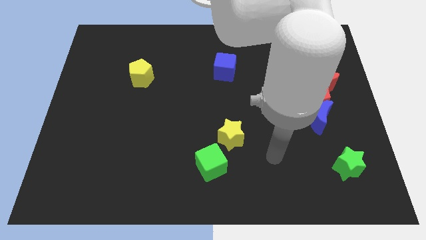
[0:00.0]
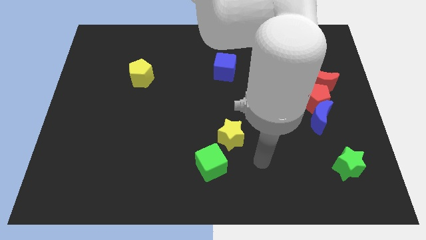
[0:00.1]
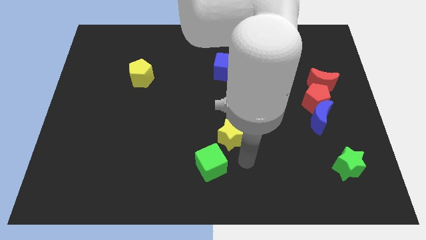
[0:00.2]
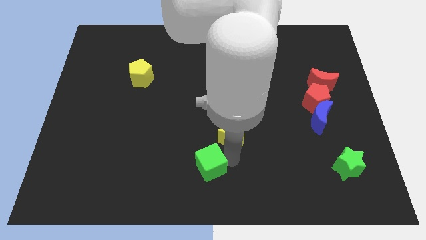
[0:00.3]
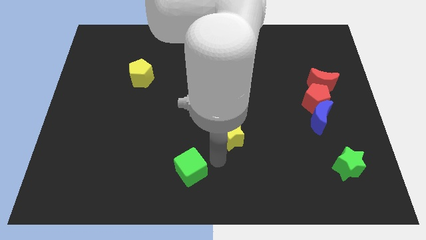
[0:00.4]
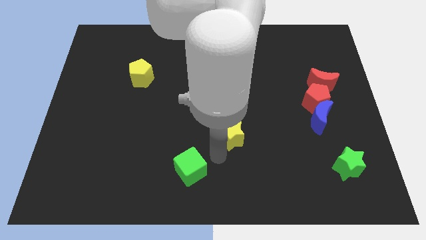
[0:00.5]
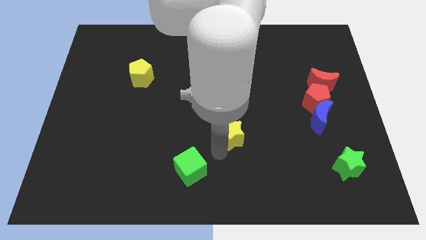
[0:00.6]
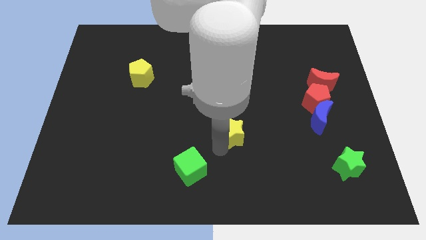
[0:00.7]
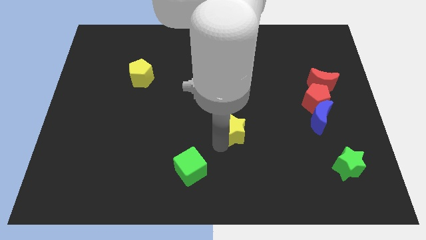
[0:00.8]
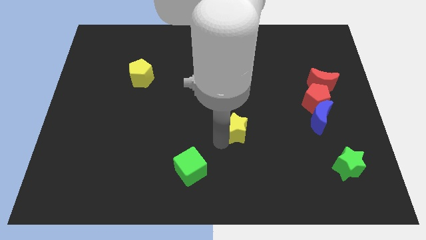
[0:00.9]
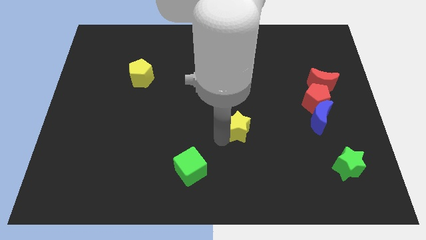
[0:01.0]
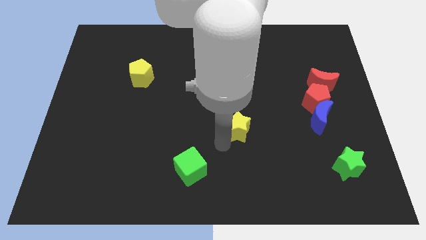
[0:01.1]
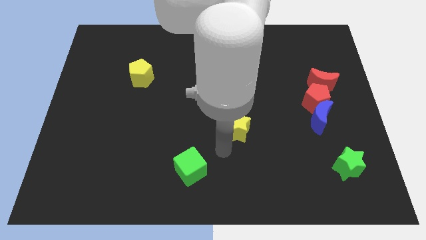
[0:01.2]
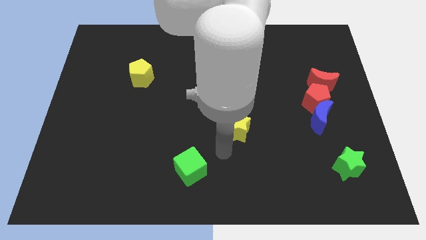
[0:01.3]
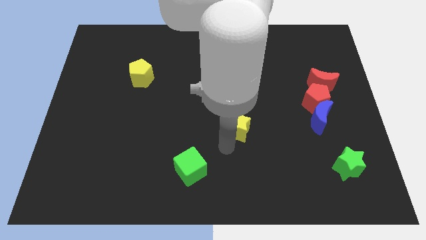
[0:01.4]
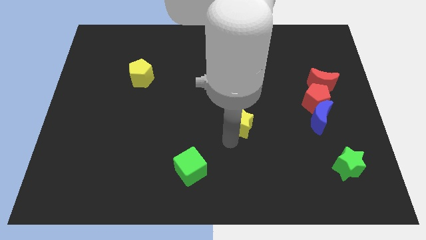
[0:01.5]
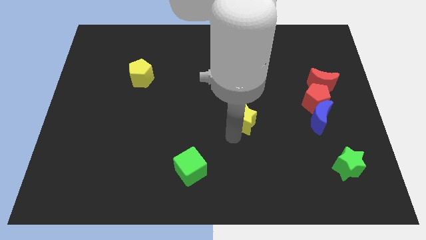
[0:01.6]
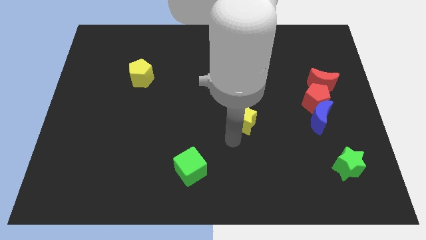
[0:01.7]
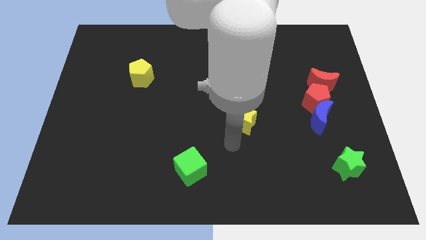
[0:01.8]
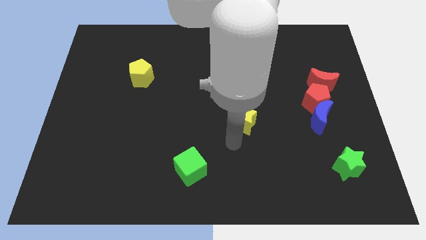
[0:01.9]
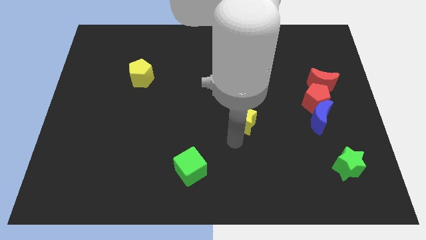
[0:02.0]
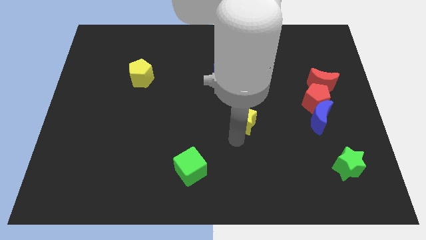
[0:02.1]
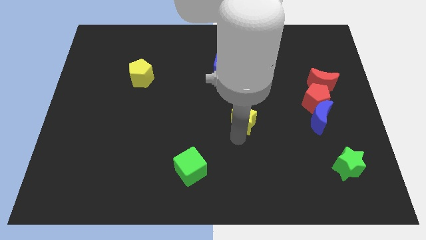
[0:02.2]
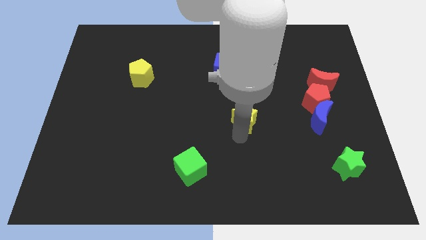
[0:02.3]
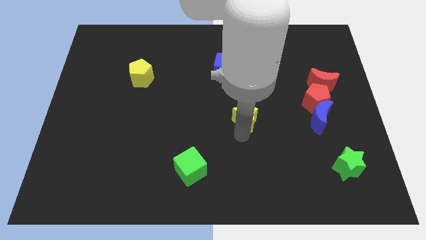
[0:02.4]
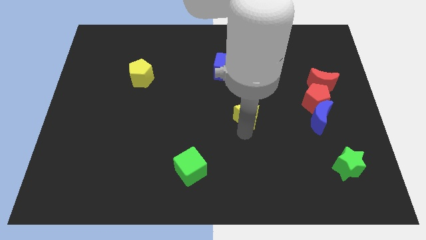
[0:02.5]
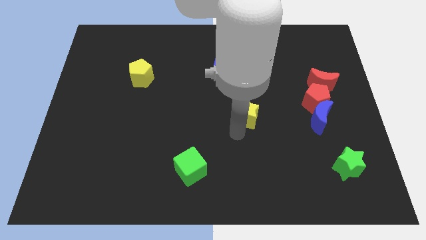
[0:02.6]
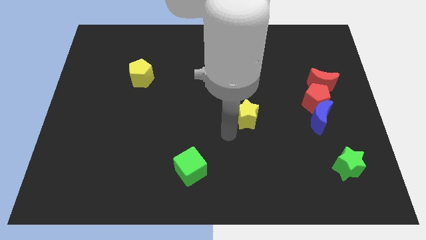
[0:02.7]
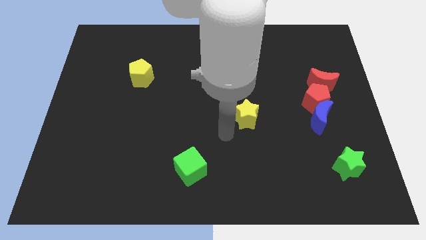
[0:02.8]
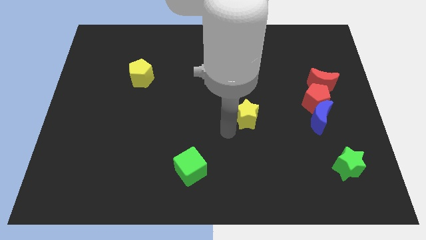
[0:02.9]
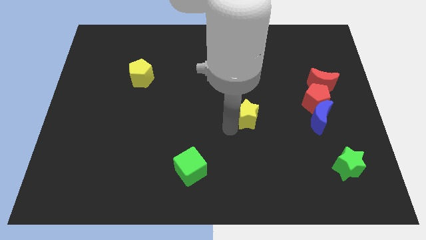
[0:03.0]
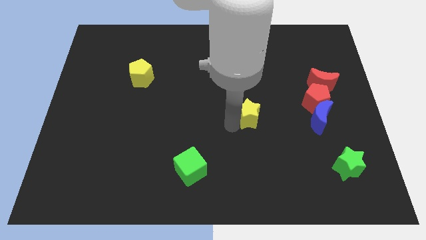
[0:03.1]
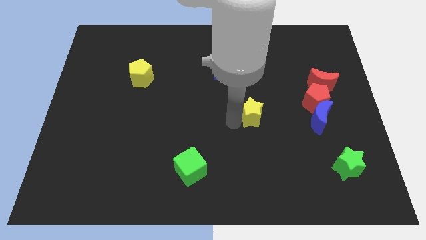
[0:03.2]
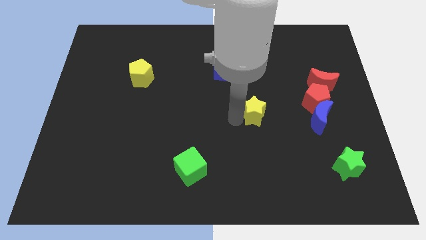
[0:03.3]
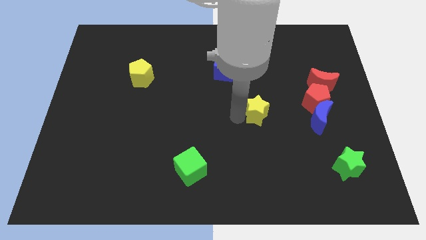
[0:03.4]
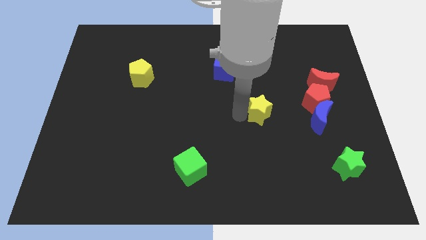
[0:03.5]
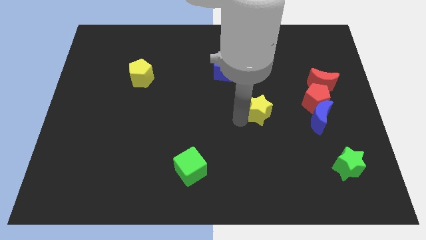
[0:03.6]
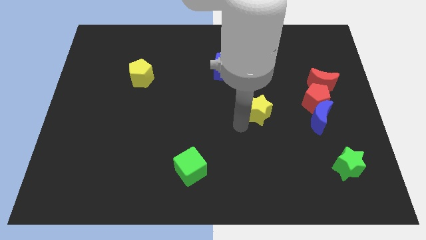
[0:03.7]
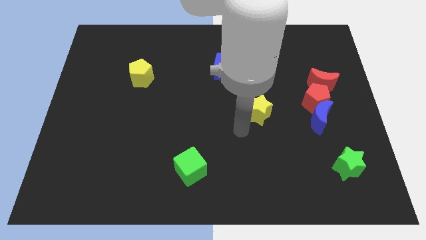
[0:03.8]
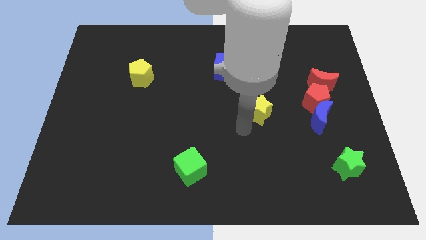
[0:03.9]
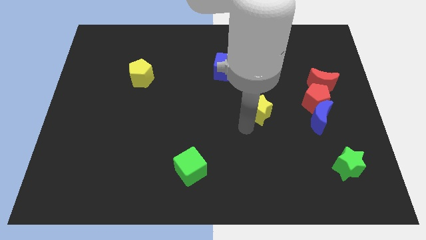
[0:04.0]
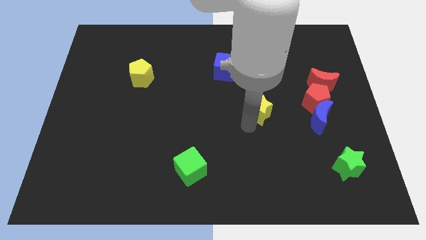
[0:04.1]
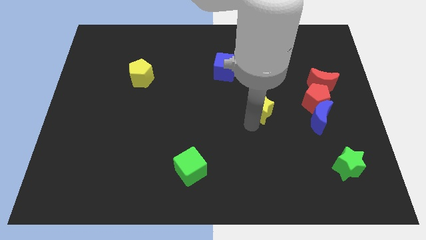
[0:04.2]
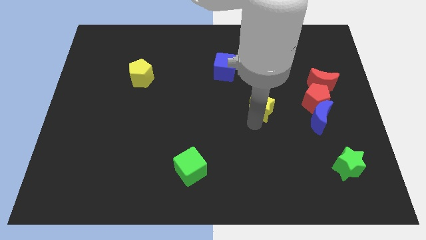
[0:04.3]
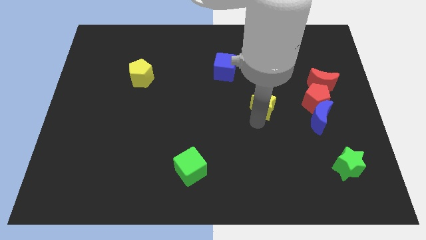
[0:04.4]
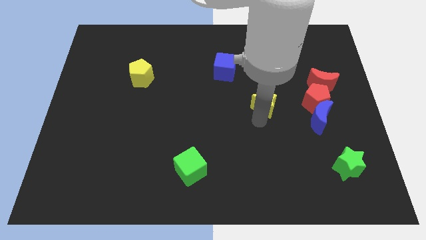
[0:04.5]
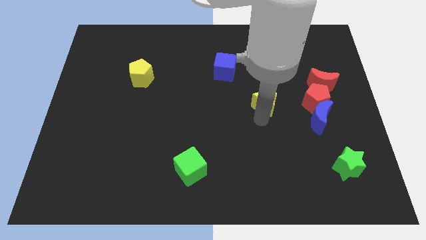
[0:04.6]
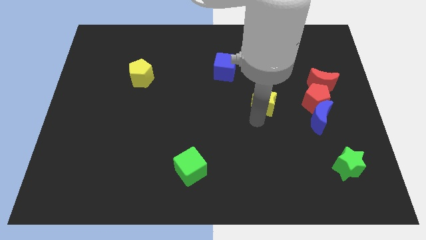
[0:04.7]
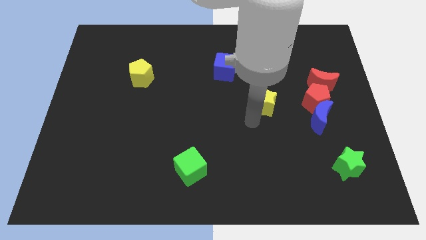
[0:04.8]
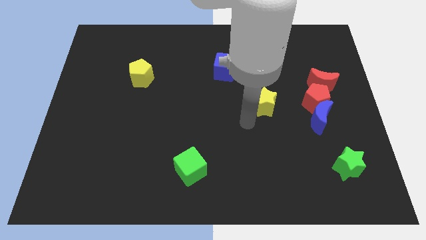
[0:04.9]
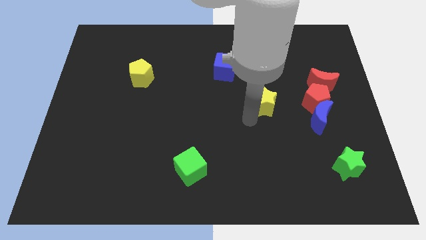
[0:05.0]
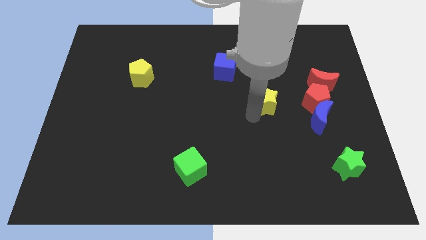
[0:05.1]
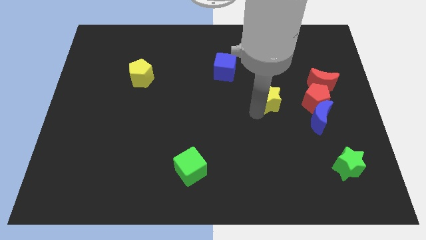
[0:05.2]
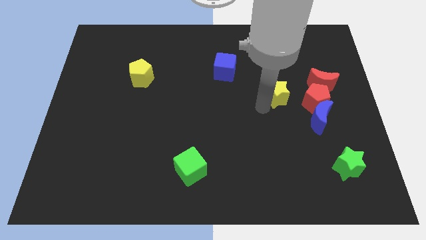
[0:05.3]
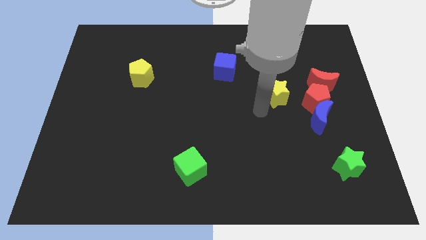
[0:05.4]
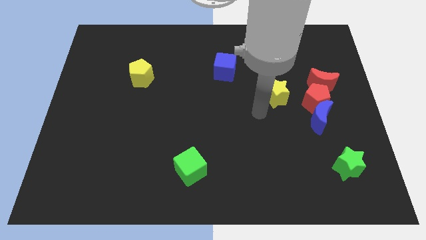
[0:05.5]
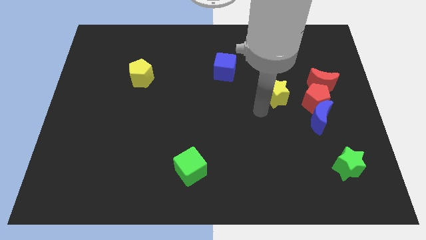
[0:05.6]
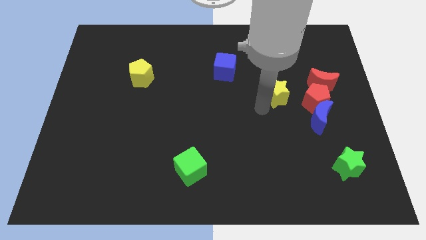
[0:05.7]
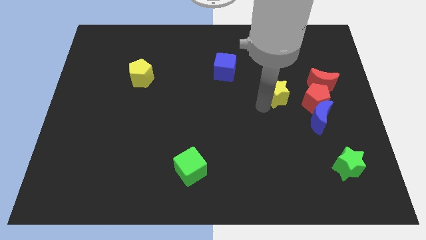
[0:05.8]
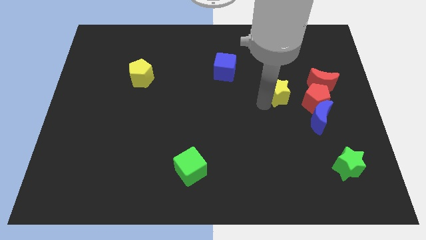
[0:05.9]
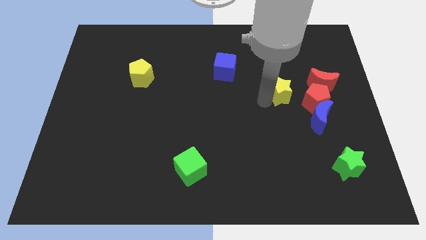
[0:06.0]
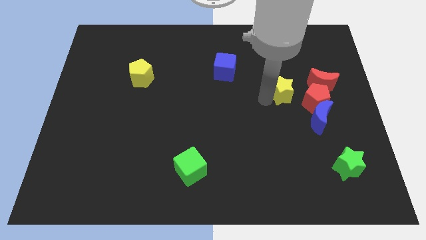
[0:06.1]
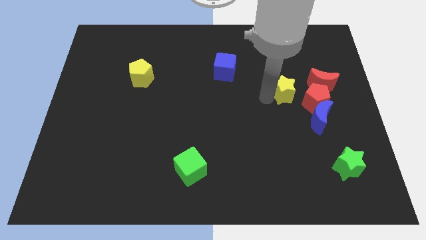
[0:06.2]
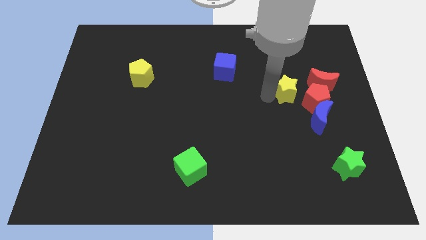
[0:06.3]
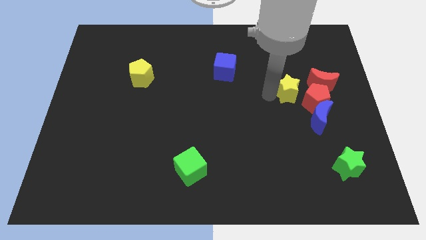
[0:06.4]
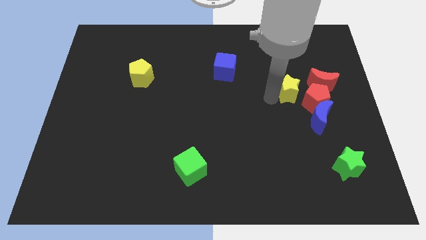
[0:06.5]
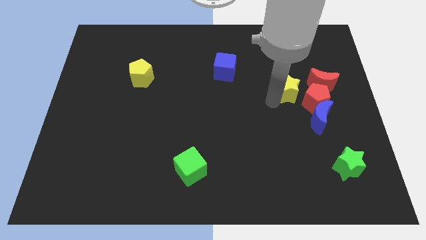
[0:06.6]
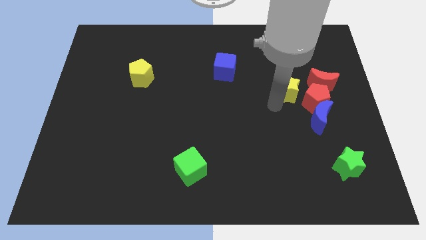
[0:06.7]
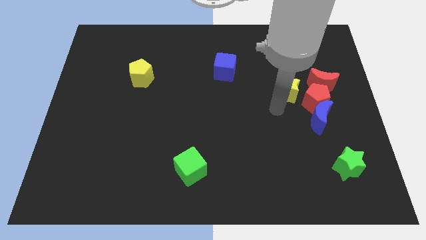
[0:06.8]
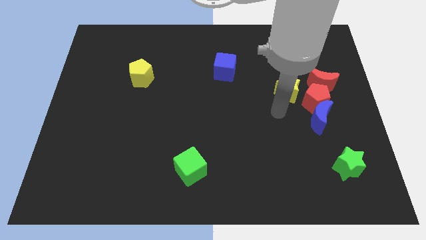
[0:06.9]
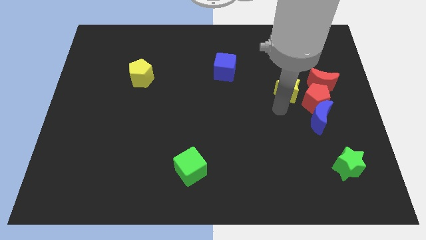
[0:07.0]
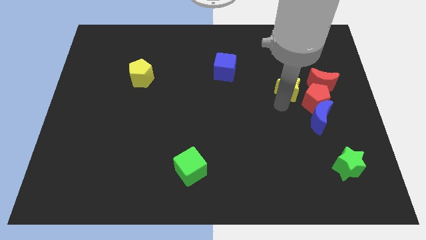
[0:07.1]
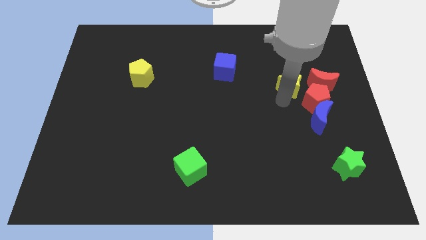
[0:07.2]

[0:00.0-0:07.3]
slide the yellow star diagonally up and to the right

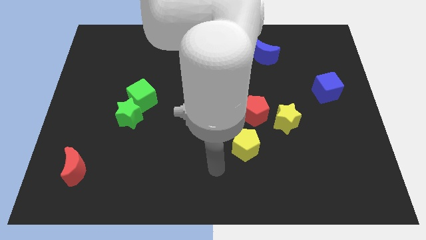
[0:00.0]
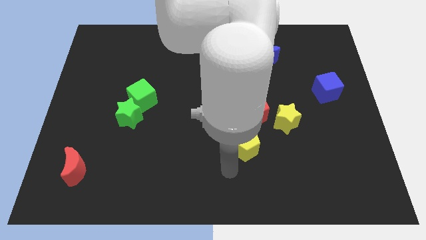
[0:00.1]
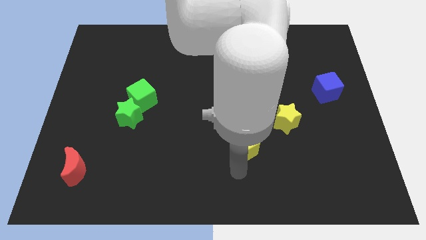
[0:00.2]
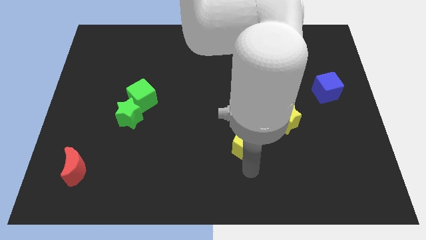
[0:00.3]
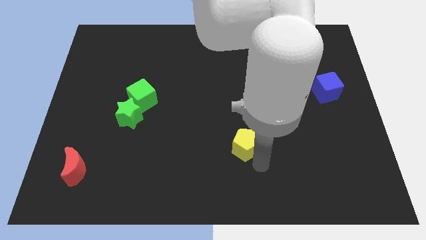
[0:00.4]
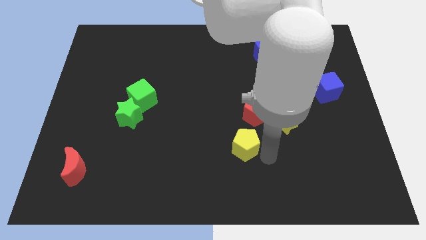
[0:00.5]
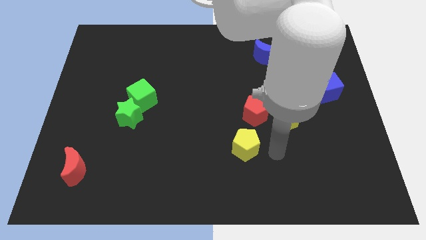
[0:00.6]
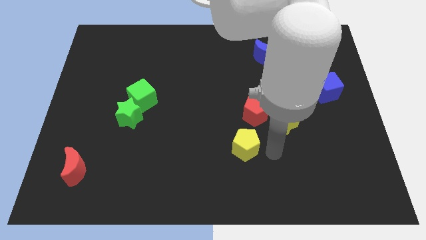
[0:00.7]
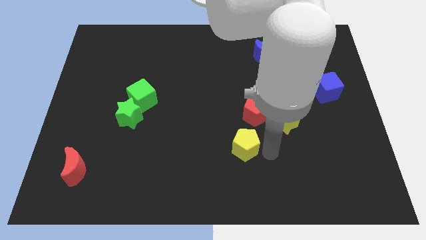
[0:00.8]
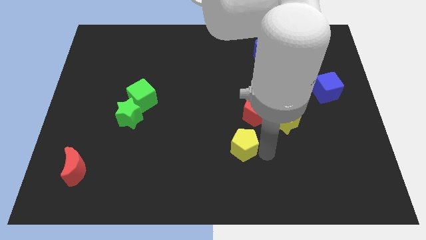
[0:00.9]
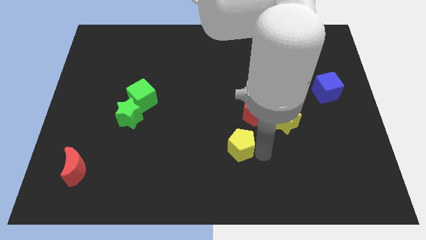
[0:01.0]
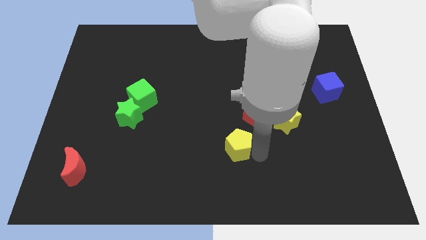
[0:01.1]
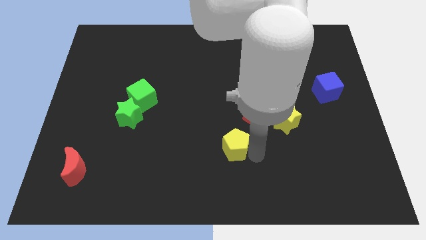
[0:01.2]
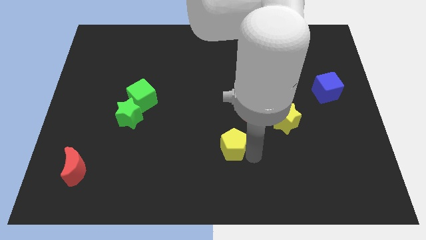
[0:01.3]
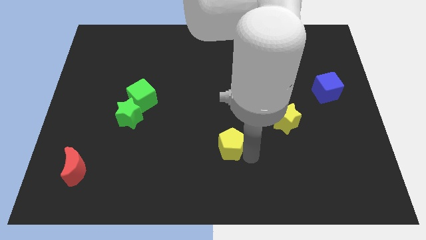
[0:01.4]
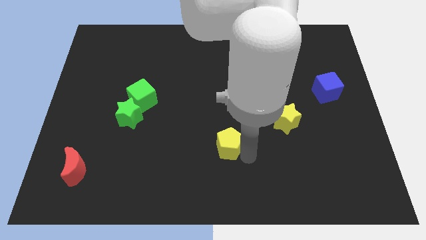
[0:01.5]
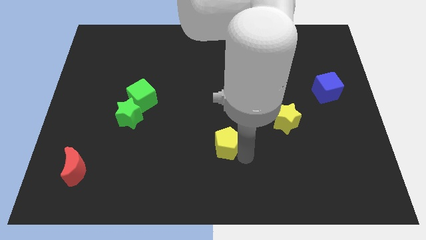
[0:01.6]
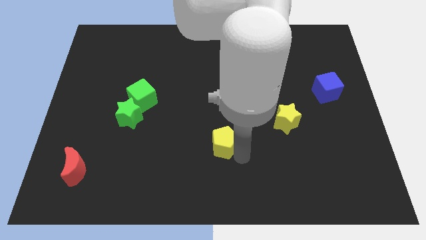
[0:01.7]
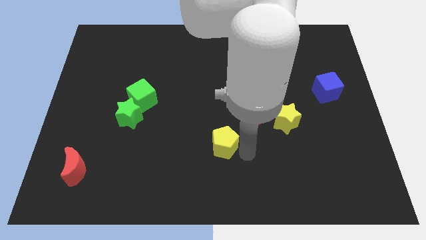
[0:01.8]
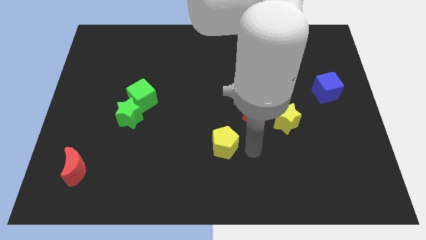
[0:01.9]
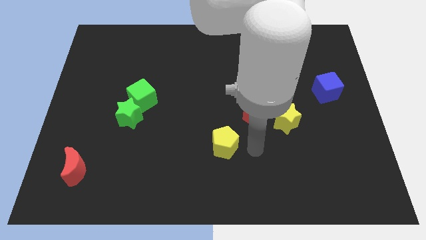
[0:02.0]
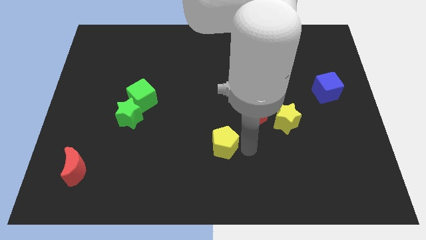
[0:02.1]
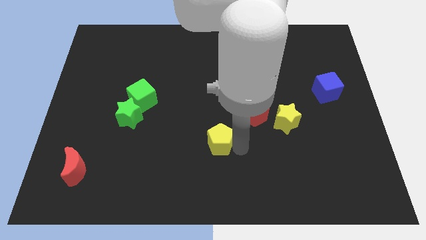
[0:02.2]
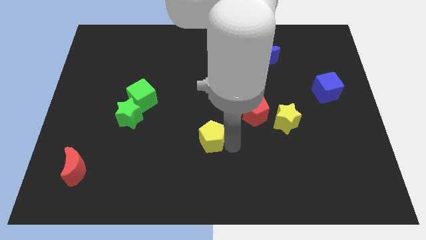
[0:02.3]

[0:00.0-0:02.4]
slide the yellow pentagon a little bit to the left
